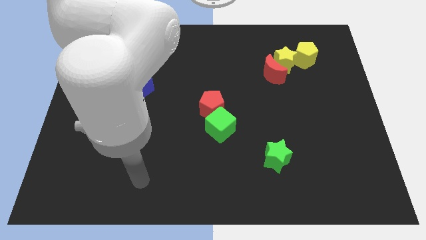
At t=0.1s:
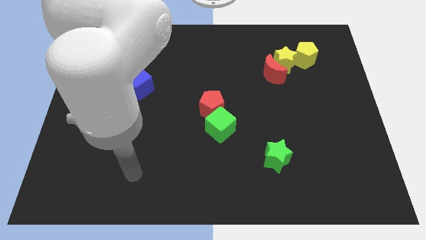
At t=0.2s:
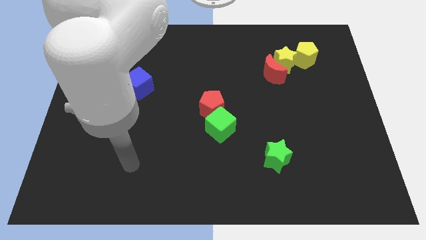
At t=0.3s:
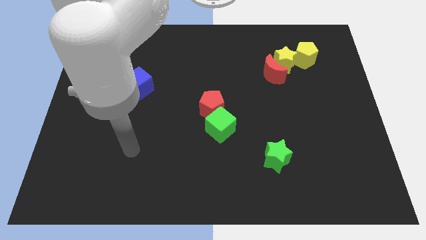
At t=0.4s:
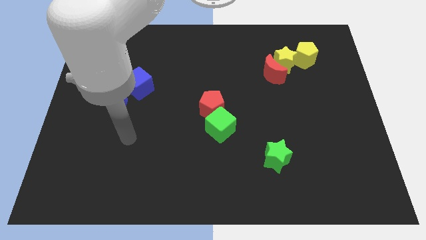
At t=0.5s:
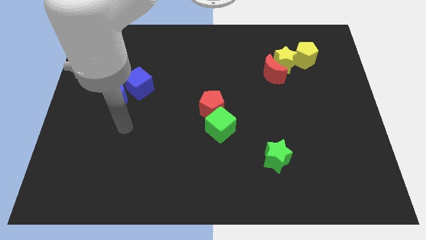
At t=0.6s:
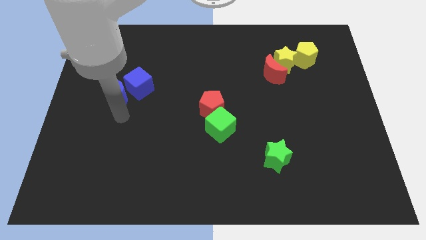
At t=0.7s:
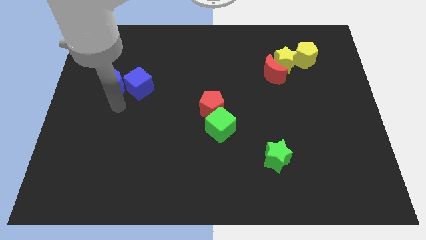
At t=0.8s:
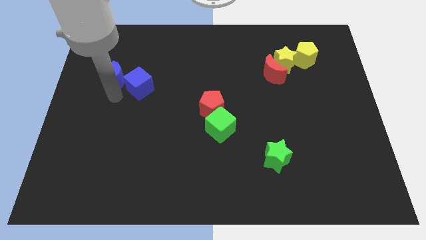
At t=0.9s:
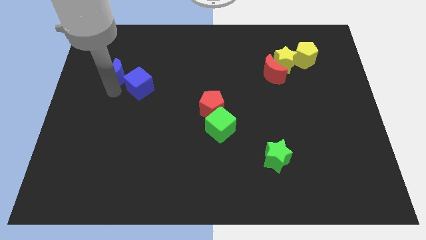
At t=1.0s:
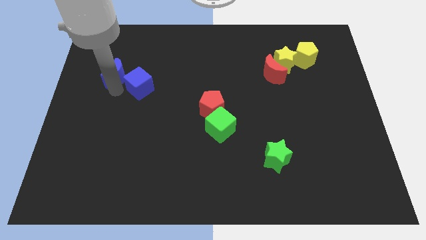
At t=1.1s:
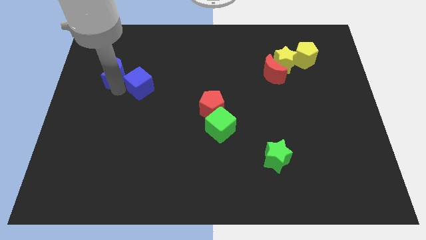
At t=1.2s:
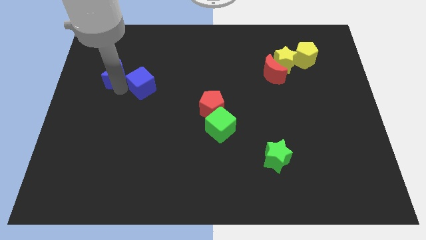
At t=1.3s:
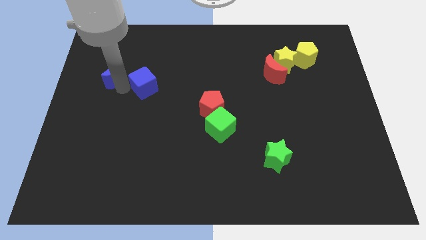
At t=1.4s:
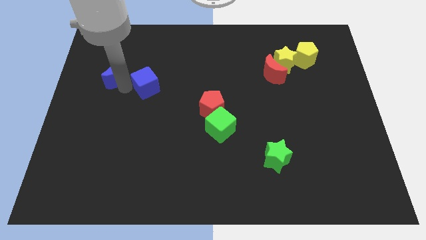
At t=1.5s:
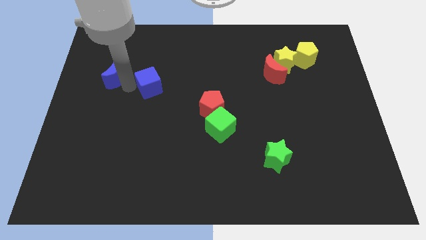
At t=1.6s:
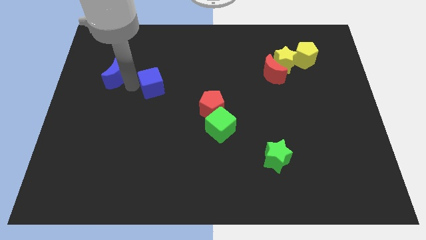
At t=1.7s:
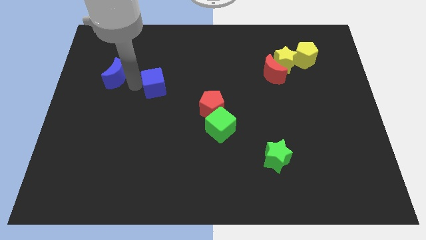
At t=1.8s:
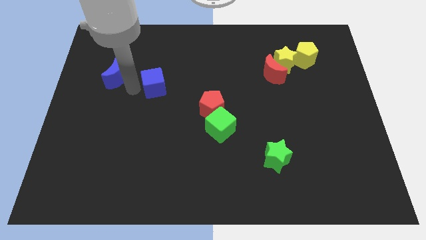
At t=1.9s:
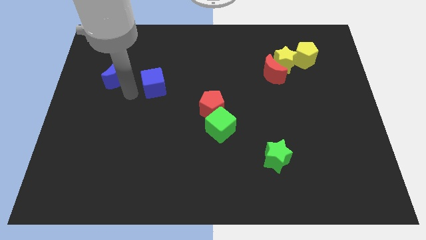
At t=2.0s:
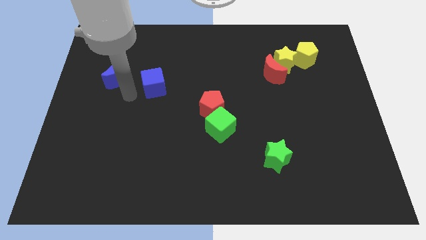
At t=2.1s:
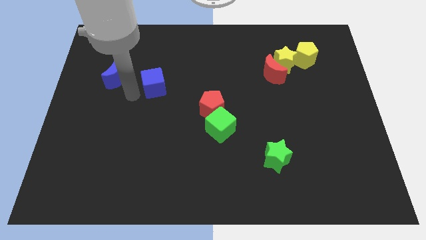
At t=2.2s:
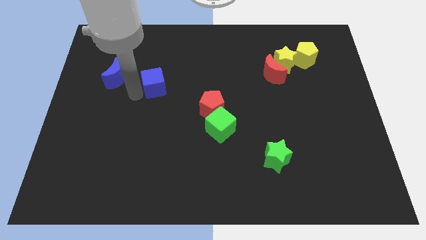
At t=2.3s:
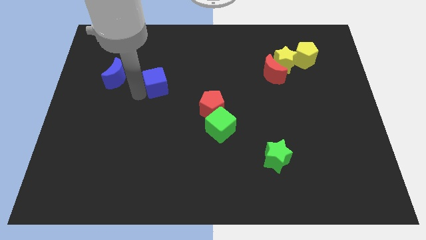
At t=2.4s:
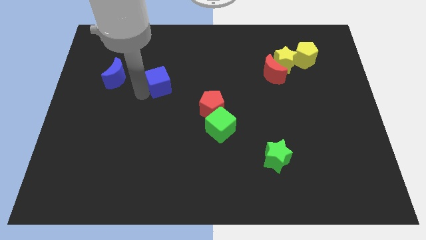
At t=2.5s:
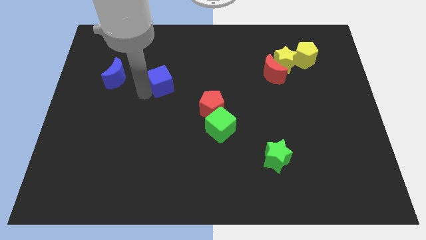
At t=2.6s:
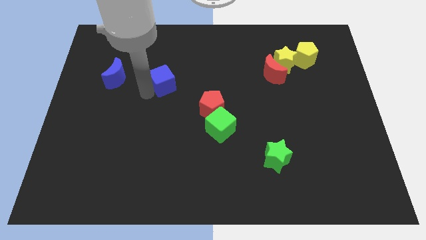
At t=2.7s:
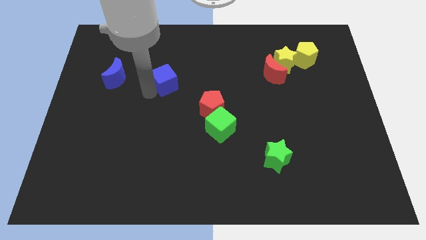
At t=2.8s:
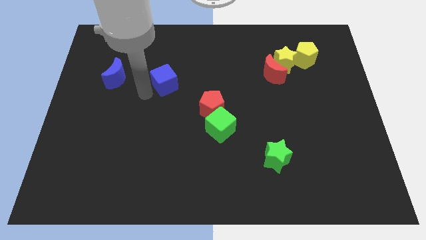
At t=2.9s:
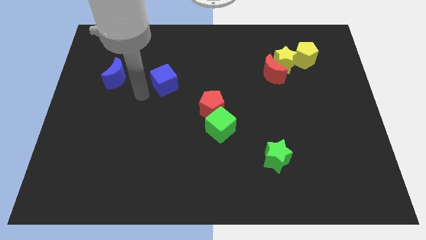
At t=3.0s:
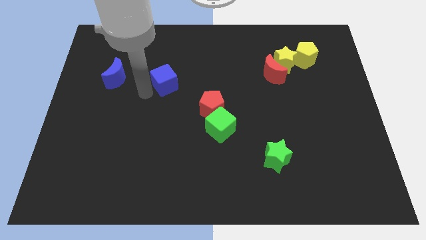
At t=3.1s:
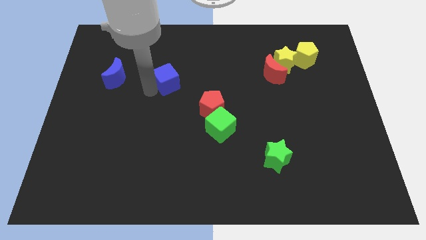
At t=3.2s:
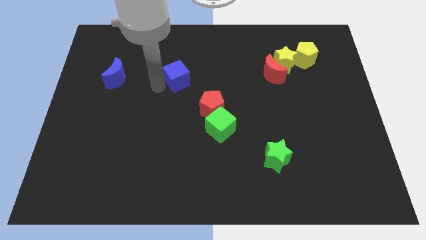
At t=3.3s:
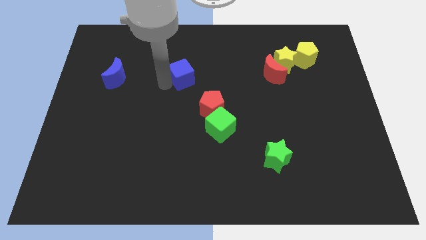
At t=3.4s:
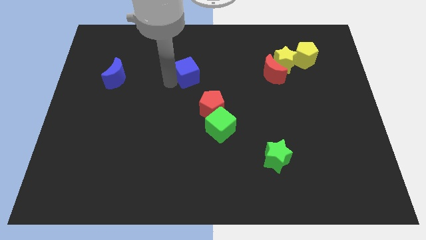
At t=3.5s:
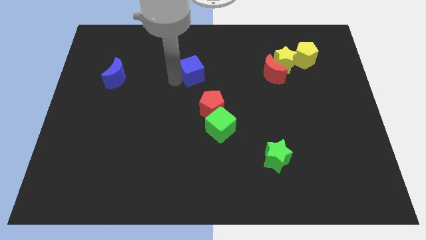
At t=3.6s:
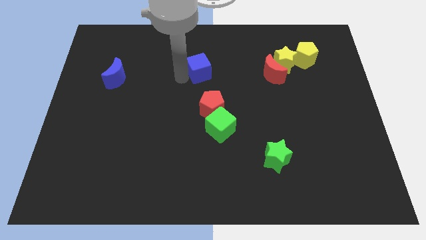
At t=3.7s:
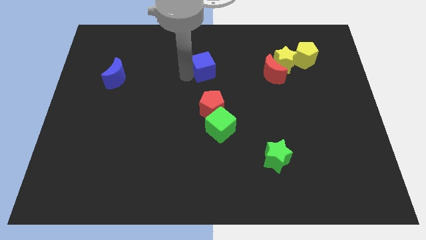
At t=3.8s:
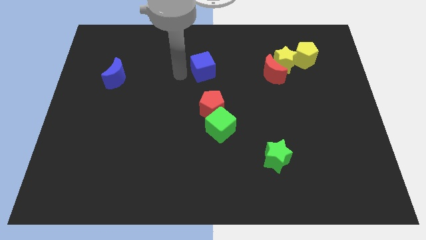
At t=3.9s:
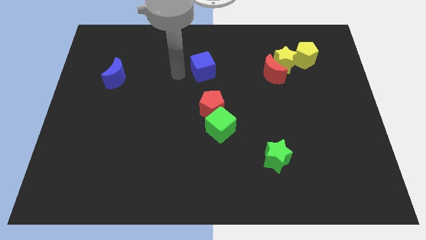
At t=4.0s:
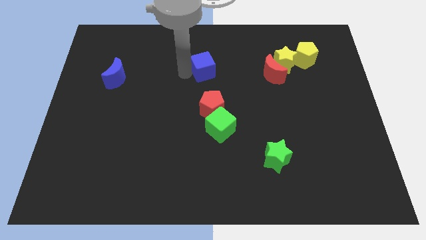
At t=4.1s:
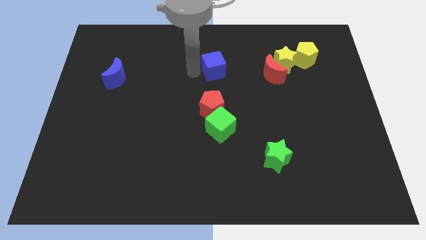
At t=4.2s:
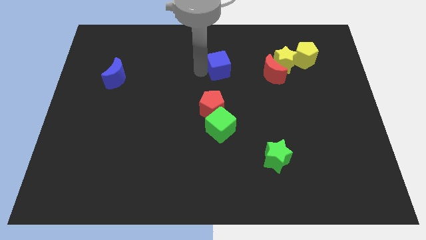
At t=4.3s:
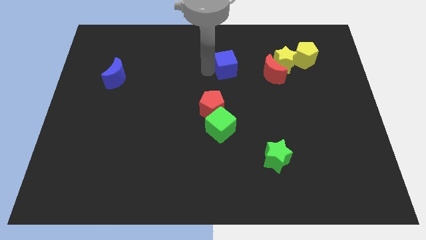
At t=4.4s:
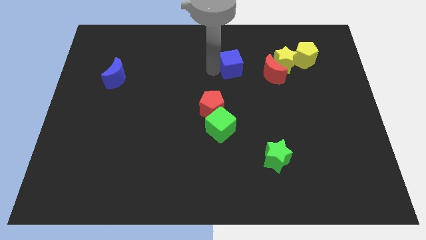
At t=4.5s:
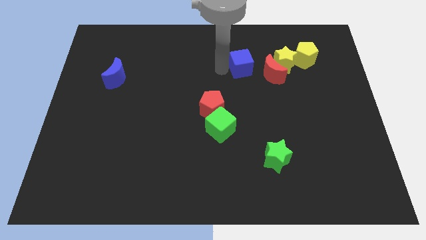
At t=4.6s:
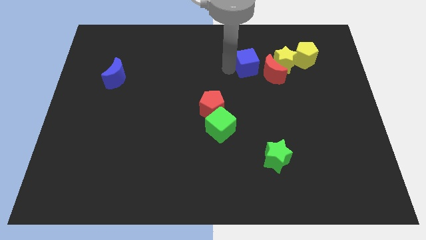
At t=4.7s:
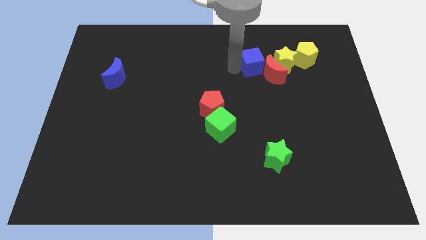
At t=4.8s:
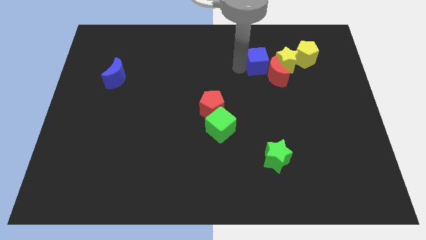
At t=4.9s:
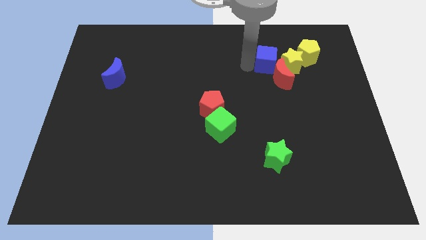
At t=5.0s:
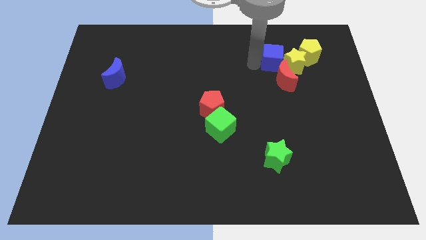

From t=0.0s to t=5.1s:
slide the blue cube to the yellow star

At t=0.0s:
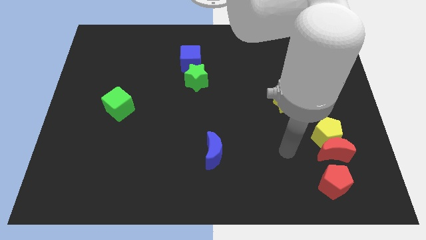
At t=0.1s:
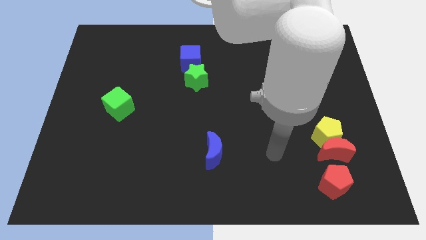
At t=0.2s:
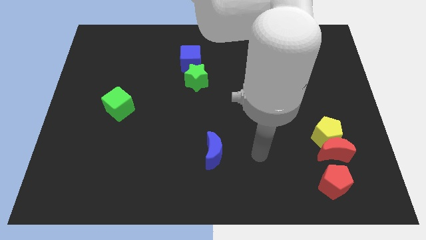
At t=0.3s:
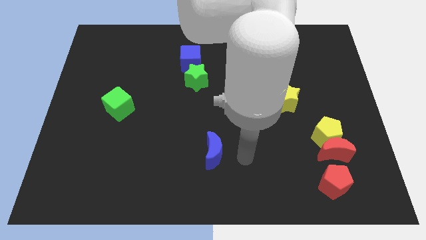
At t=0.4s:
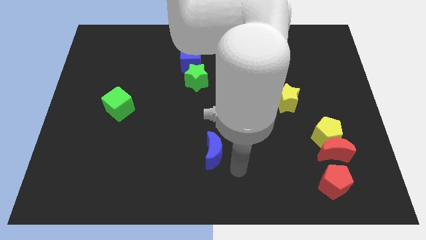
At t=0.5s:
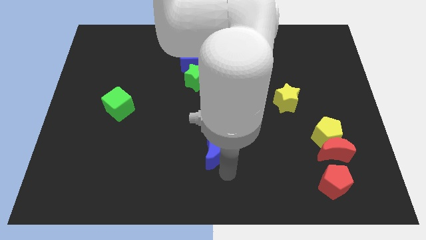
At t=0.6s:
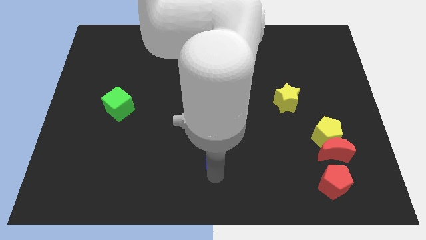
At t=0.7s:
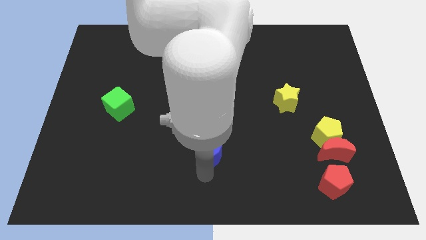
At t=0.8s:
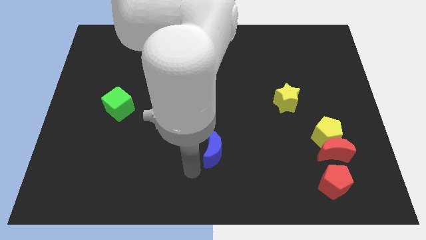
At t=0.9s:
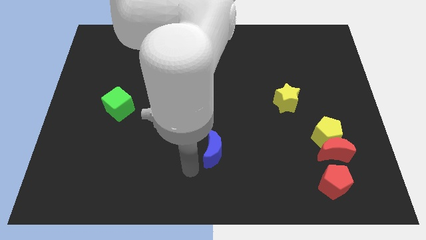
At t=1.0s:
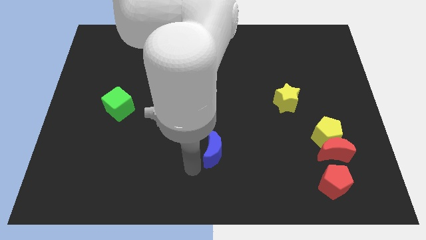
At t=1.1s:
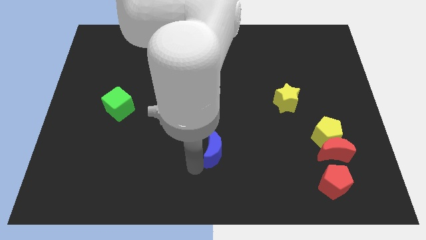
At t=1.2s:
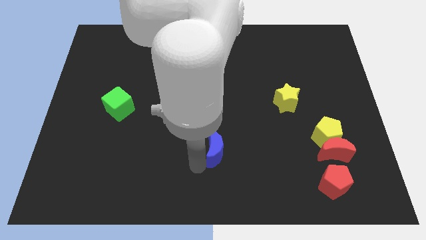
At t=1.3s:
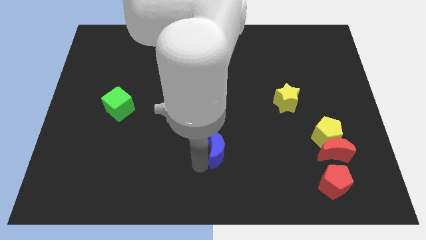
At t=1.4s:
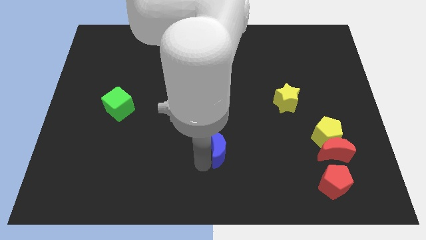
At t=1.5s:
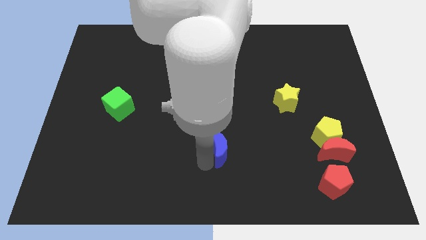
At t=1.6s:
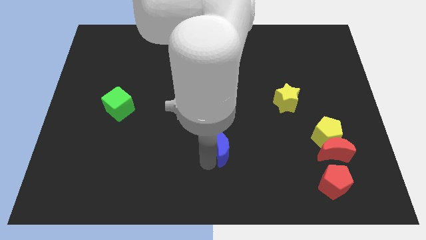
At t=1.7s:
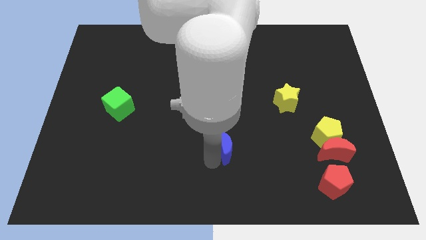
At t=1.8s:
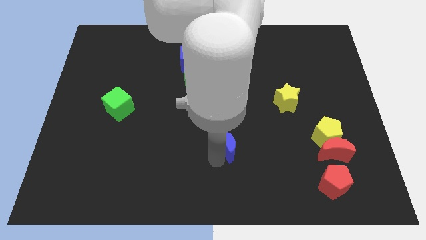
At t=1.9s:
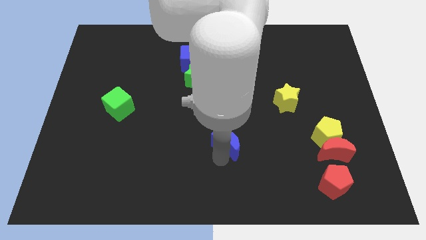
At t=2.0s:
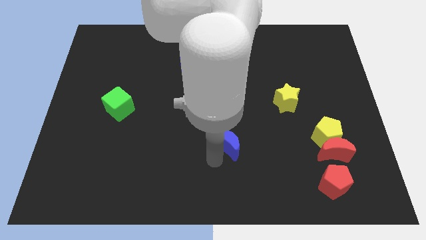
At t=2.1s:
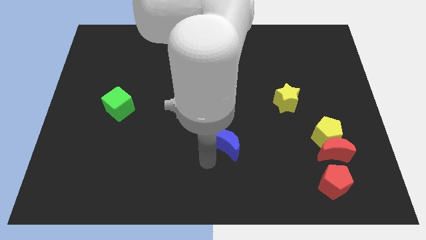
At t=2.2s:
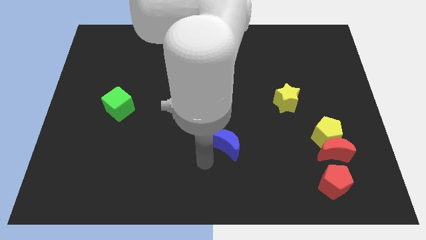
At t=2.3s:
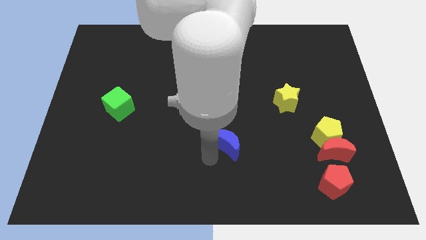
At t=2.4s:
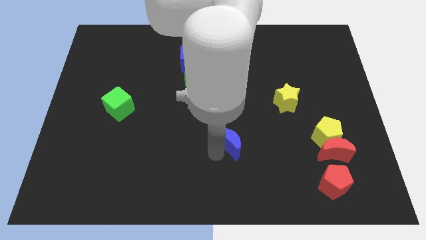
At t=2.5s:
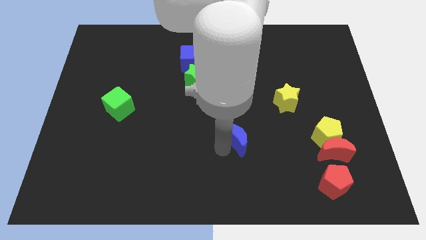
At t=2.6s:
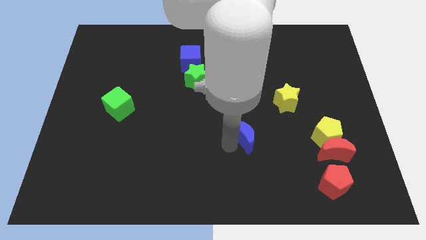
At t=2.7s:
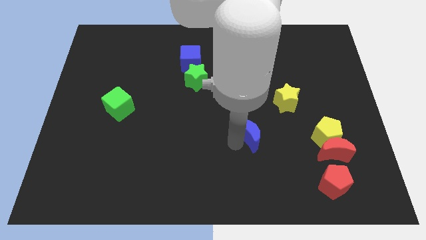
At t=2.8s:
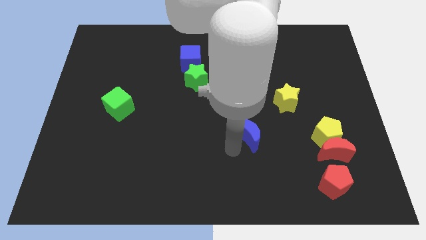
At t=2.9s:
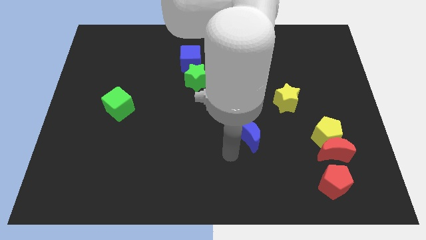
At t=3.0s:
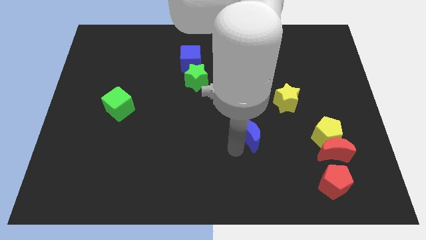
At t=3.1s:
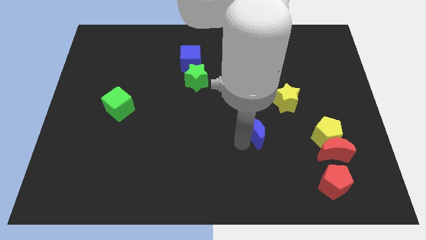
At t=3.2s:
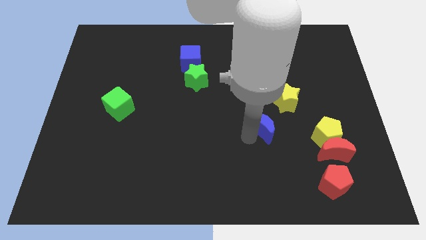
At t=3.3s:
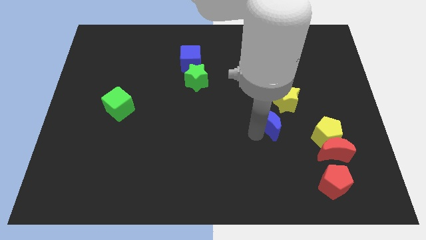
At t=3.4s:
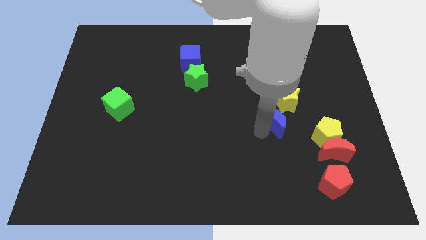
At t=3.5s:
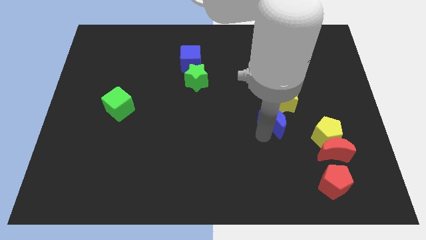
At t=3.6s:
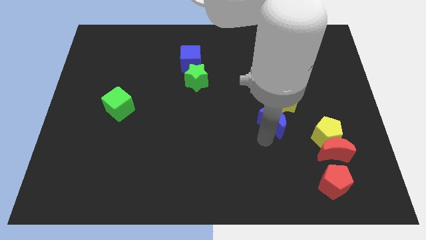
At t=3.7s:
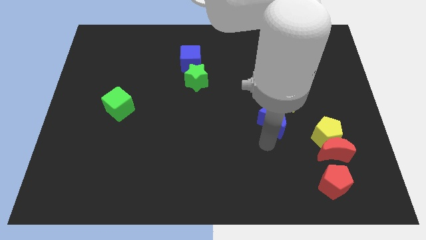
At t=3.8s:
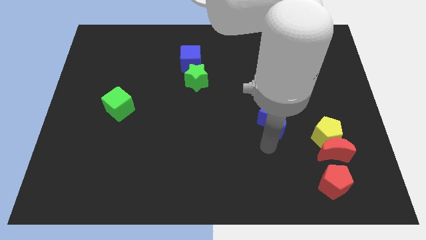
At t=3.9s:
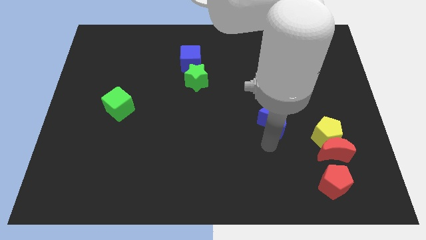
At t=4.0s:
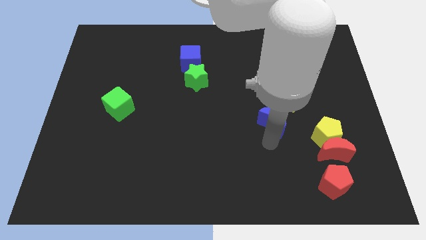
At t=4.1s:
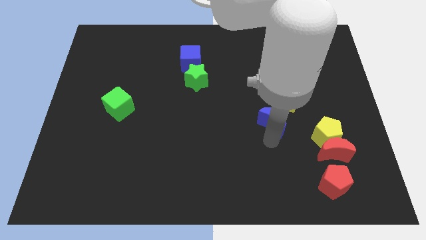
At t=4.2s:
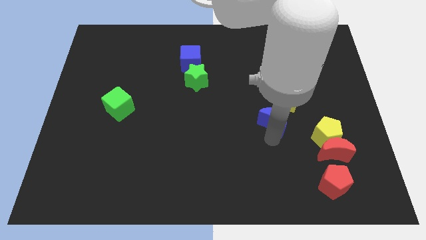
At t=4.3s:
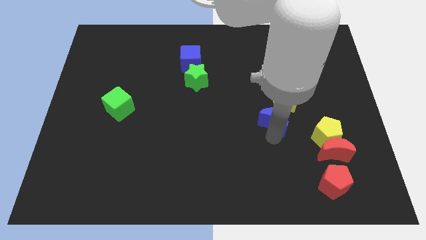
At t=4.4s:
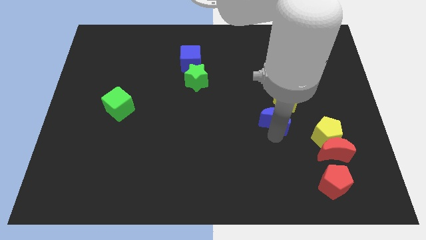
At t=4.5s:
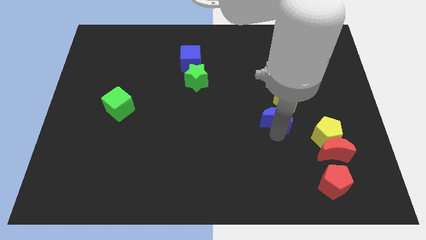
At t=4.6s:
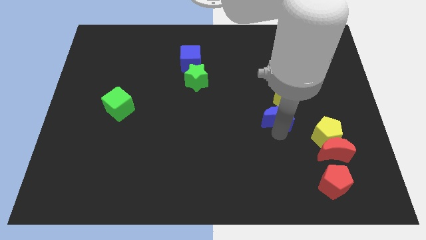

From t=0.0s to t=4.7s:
push the blue moon next to the yellow star
